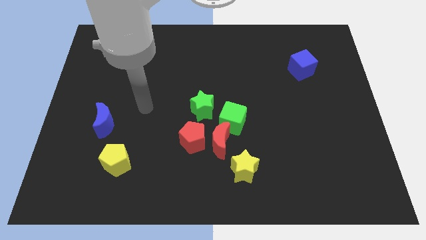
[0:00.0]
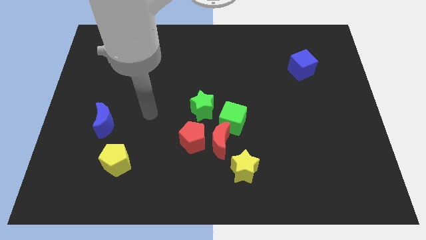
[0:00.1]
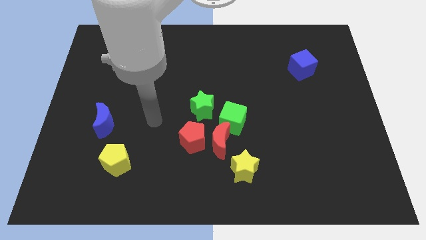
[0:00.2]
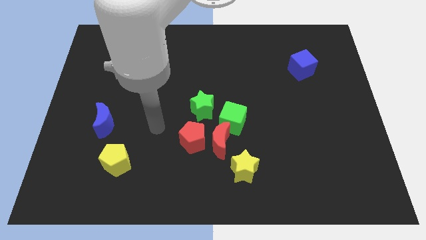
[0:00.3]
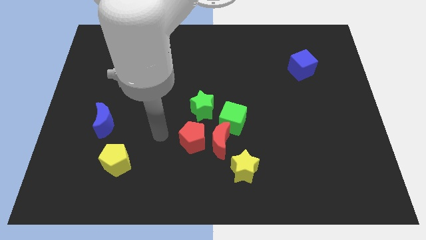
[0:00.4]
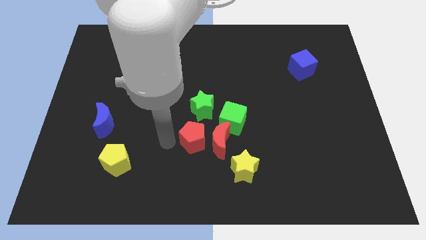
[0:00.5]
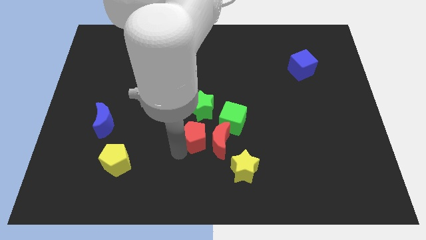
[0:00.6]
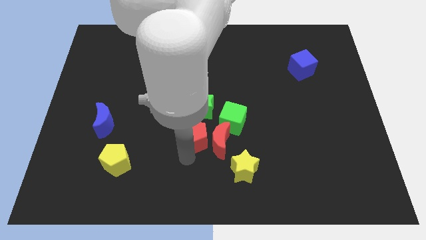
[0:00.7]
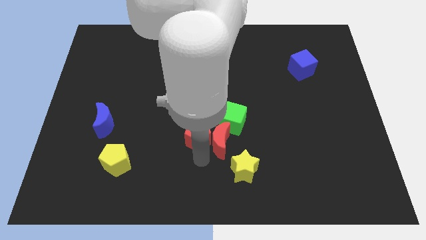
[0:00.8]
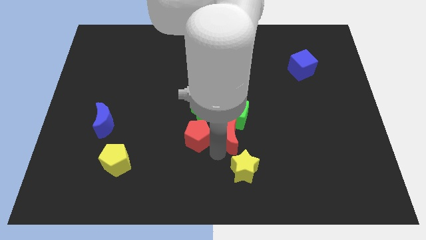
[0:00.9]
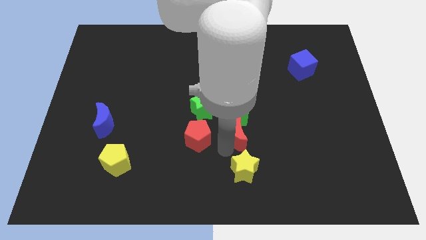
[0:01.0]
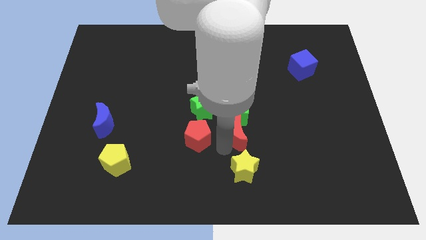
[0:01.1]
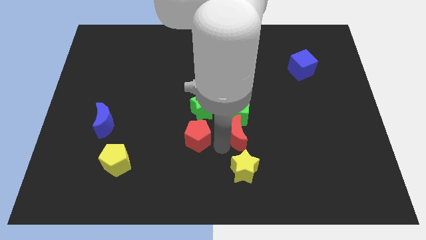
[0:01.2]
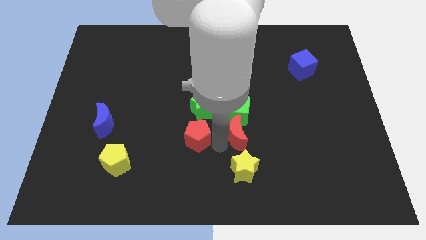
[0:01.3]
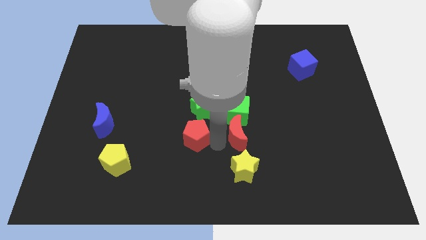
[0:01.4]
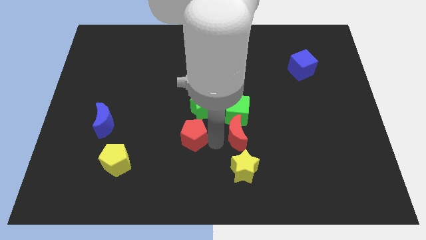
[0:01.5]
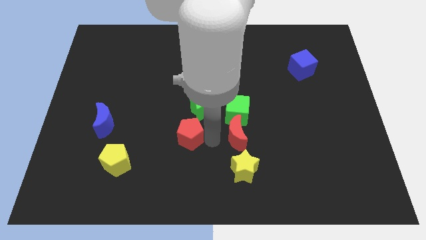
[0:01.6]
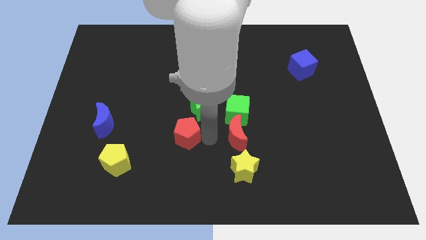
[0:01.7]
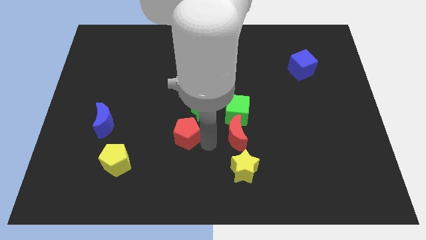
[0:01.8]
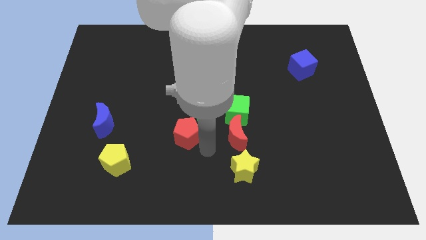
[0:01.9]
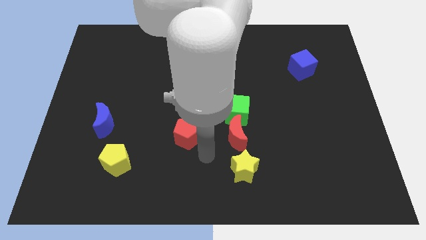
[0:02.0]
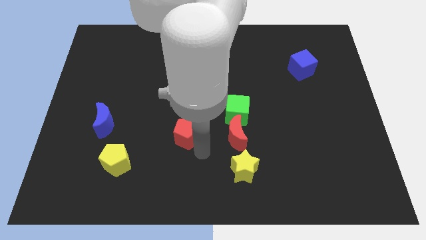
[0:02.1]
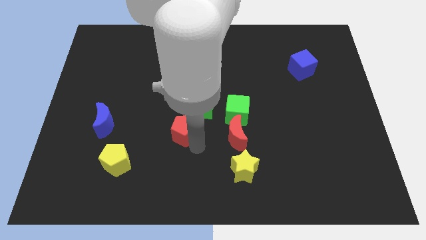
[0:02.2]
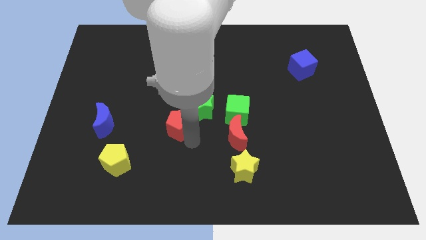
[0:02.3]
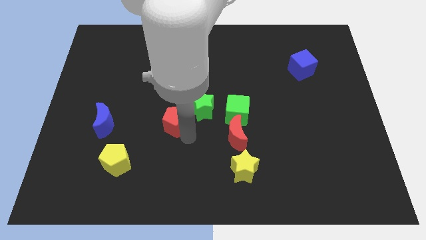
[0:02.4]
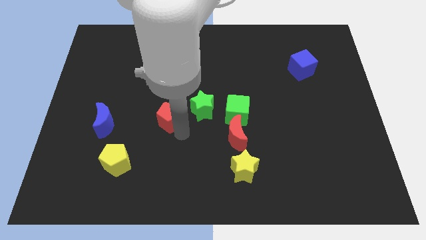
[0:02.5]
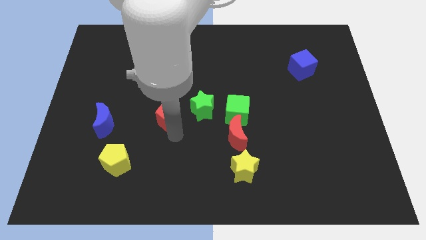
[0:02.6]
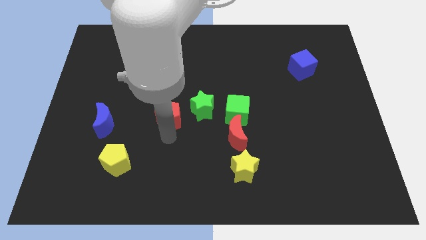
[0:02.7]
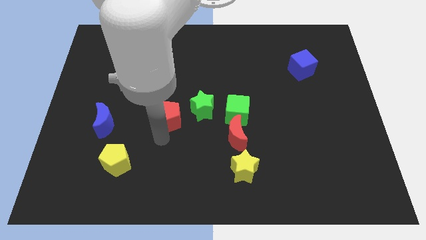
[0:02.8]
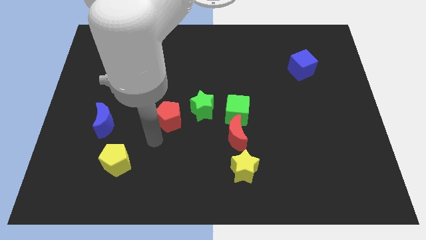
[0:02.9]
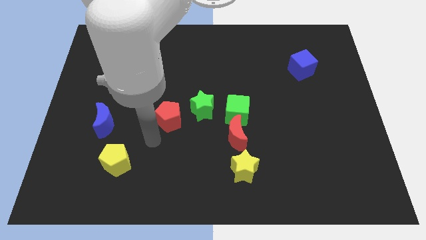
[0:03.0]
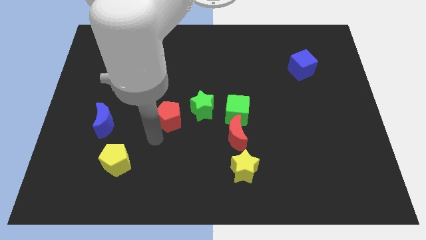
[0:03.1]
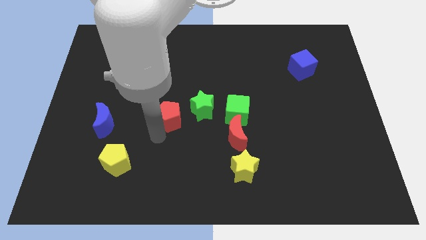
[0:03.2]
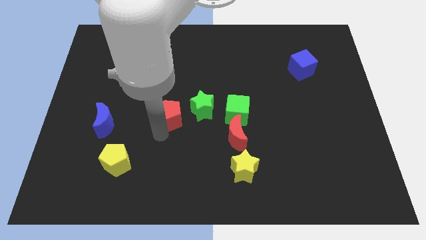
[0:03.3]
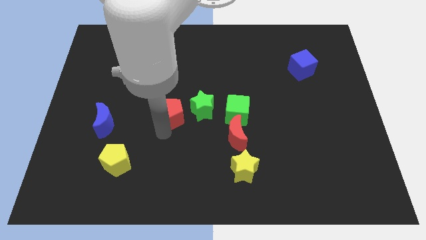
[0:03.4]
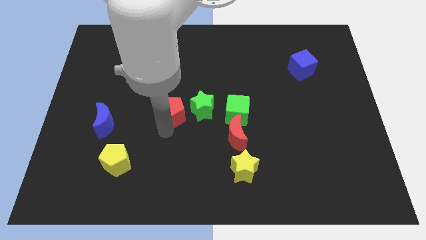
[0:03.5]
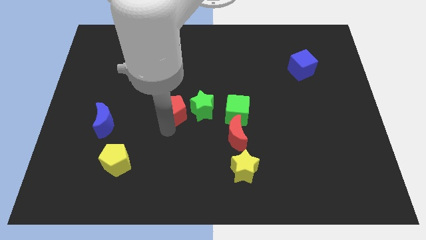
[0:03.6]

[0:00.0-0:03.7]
push the red pentagon a bit up

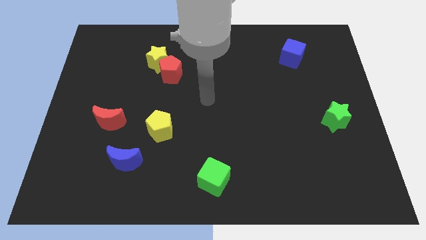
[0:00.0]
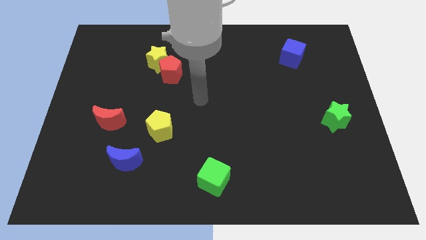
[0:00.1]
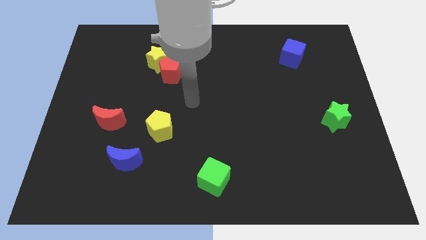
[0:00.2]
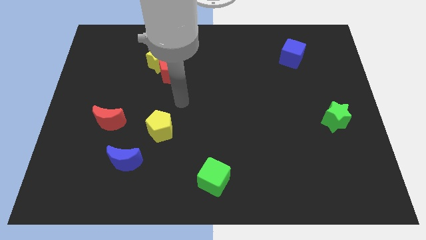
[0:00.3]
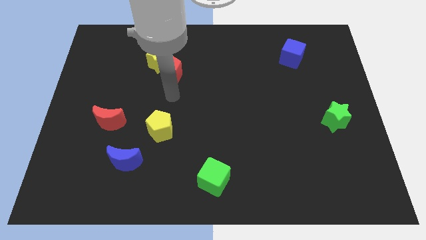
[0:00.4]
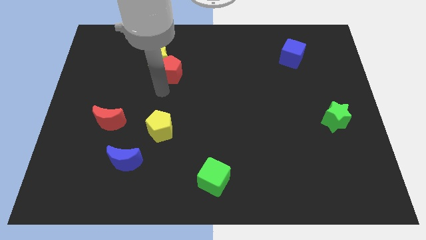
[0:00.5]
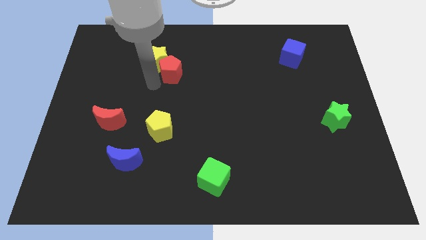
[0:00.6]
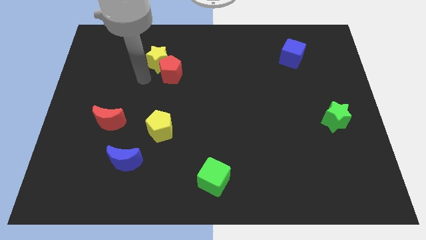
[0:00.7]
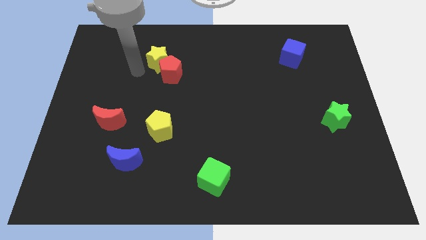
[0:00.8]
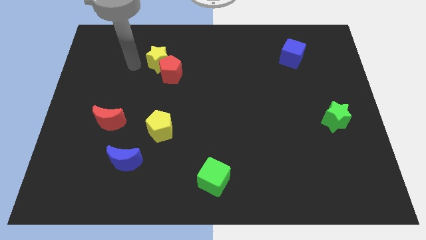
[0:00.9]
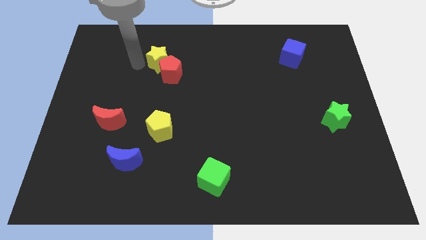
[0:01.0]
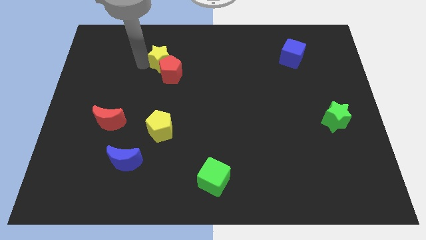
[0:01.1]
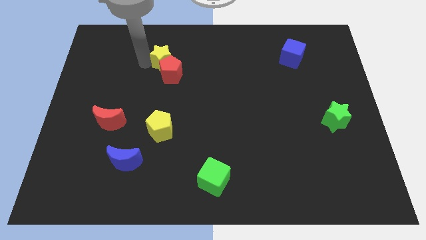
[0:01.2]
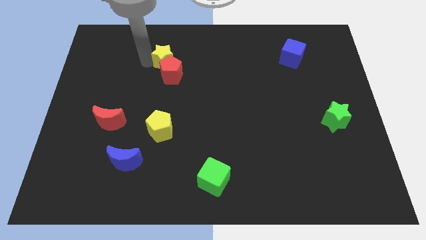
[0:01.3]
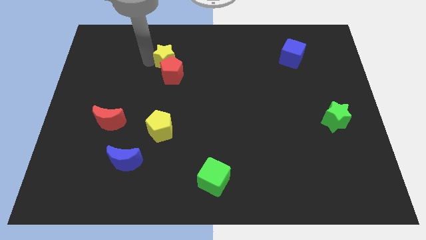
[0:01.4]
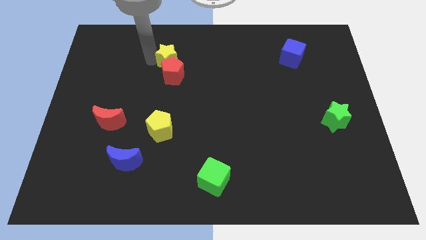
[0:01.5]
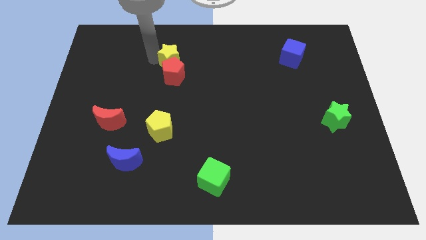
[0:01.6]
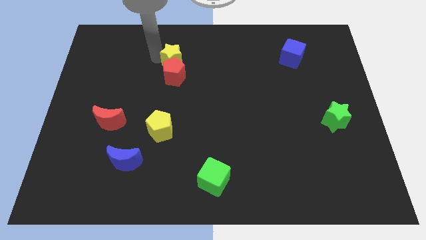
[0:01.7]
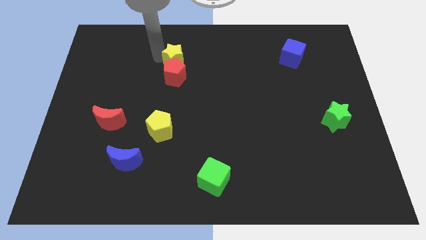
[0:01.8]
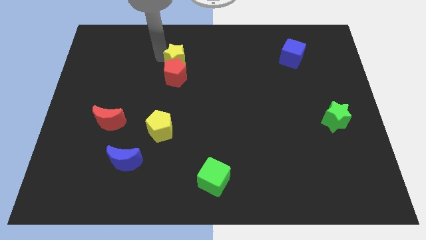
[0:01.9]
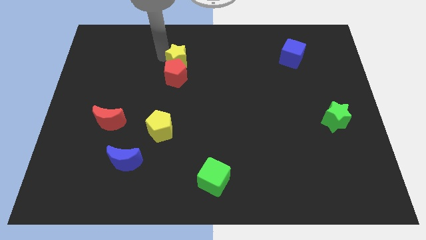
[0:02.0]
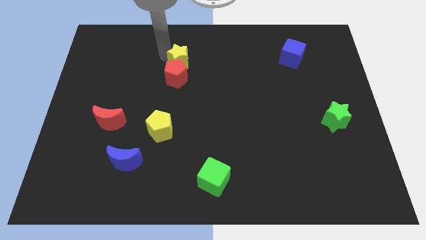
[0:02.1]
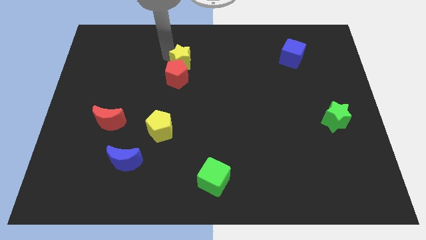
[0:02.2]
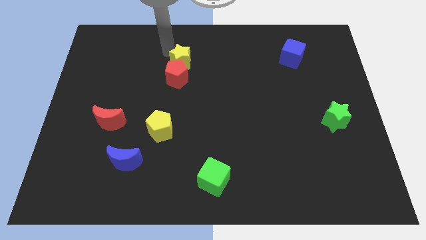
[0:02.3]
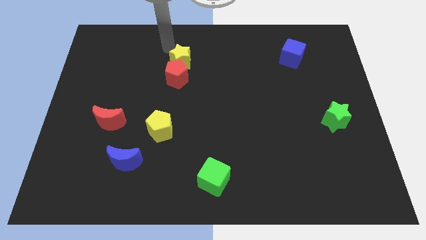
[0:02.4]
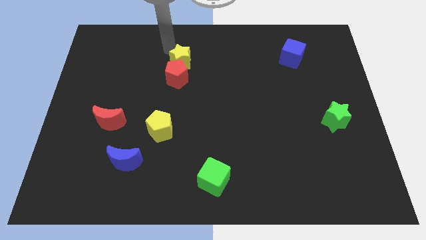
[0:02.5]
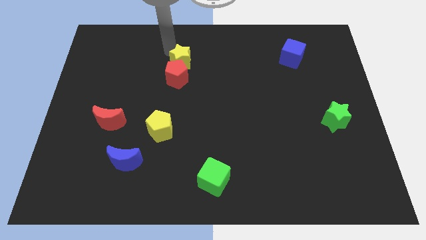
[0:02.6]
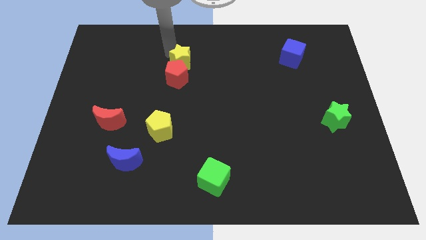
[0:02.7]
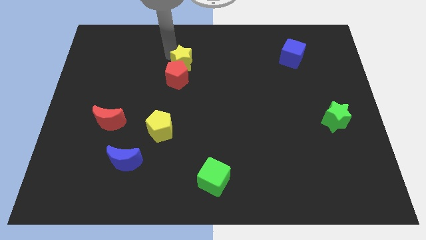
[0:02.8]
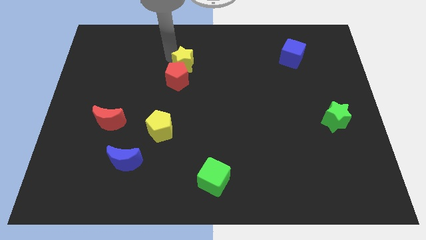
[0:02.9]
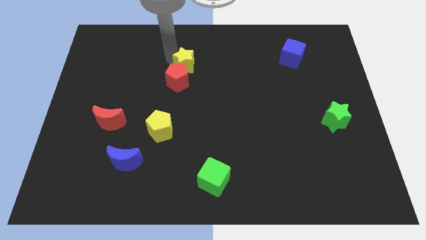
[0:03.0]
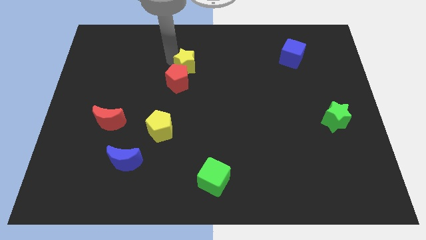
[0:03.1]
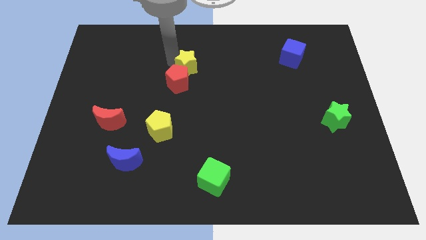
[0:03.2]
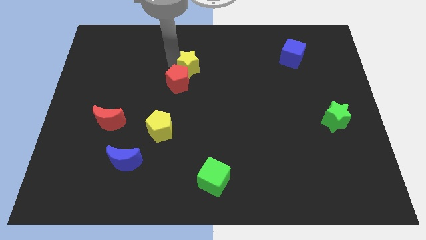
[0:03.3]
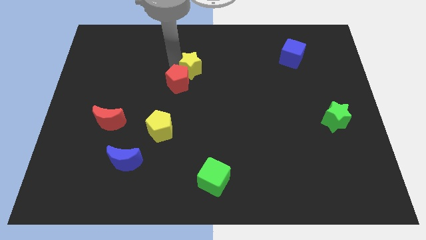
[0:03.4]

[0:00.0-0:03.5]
slightly push the yellow star diagonally down and right

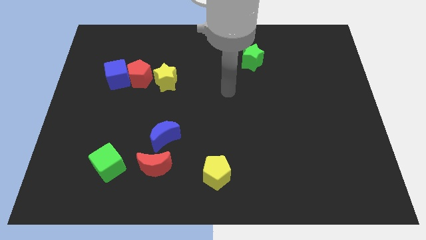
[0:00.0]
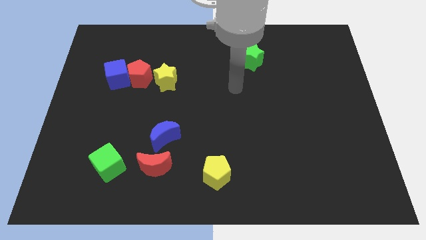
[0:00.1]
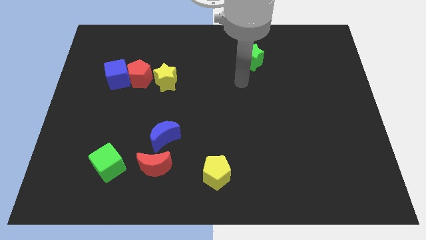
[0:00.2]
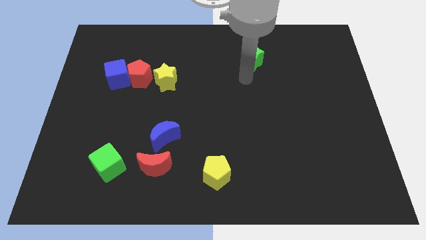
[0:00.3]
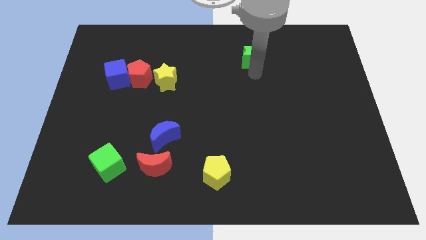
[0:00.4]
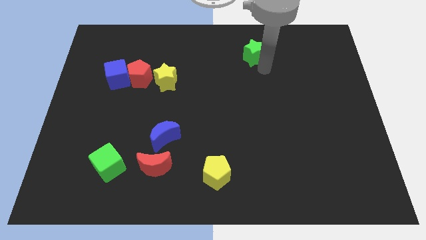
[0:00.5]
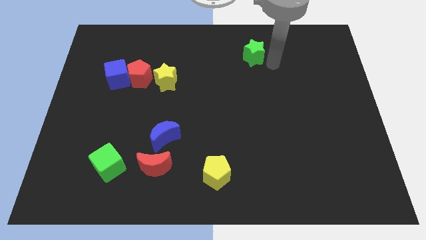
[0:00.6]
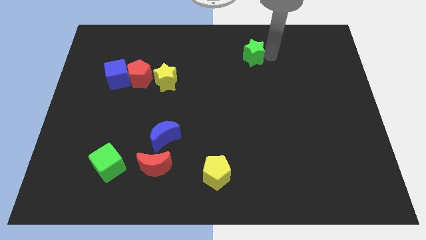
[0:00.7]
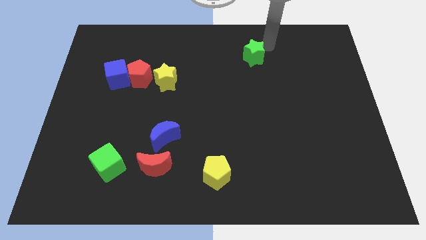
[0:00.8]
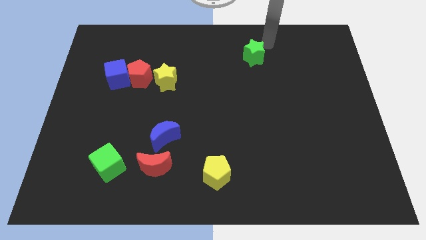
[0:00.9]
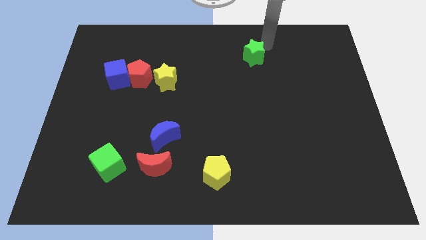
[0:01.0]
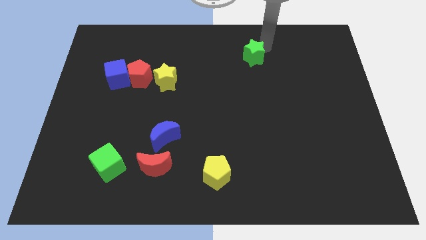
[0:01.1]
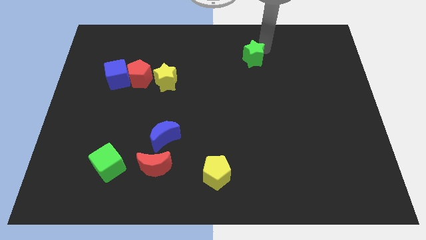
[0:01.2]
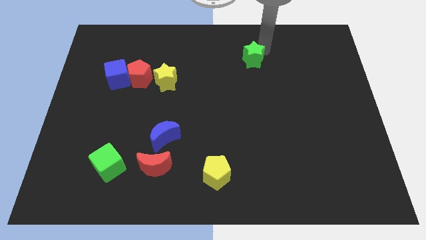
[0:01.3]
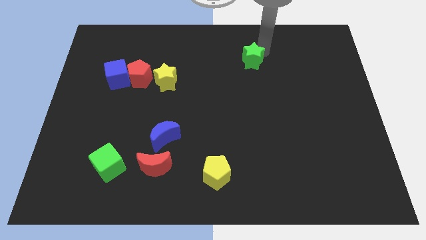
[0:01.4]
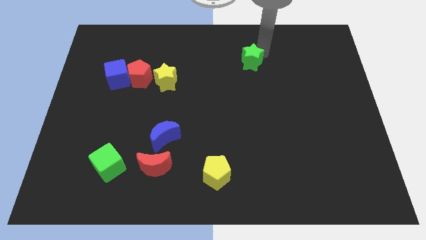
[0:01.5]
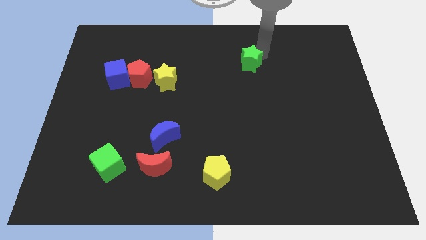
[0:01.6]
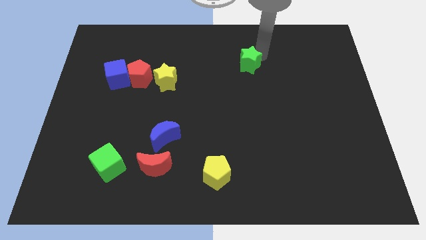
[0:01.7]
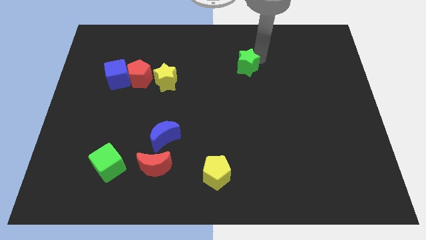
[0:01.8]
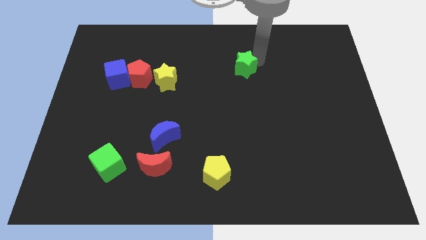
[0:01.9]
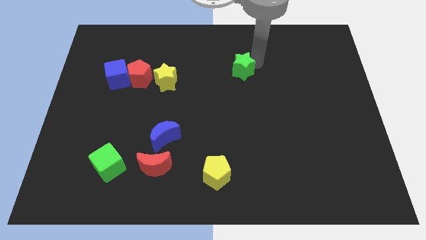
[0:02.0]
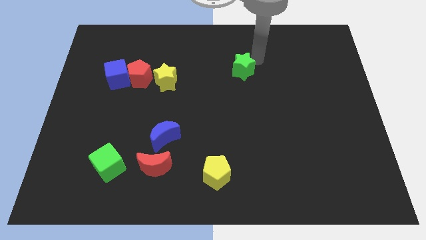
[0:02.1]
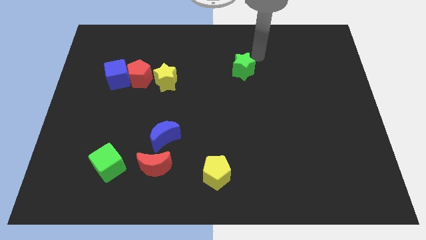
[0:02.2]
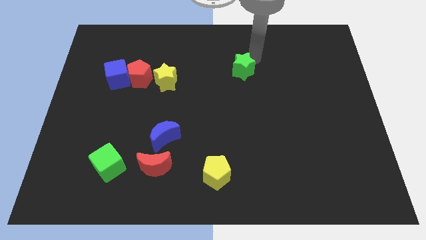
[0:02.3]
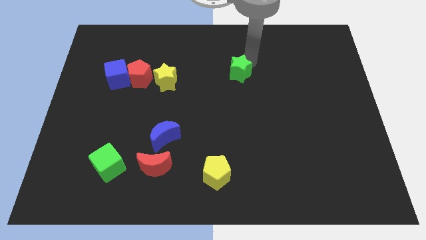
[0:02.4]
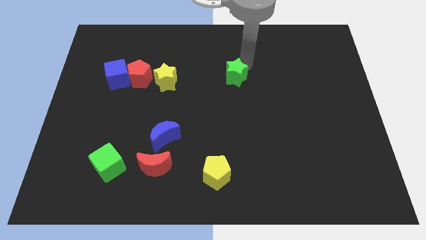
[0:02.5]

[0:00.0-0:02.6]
slightly move the green star diagonally downwards and left
